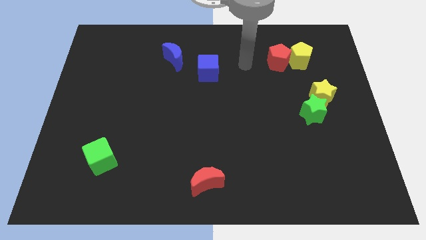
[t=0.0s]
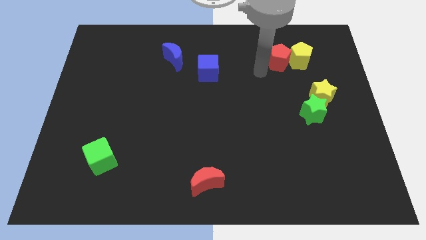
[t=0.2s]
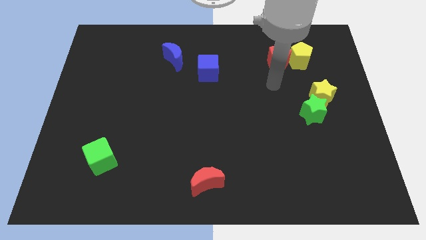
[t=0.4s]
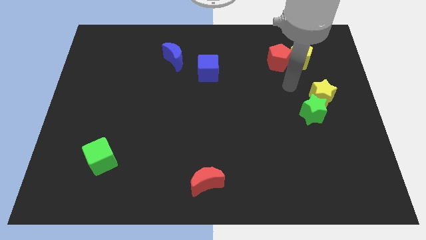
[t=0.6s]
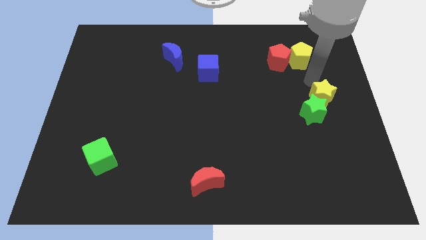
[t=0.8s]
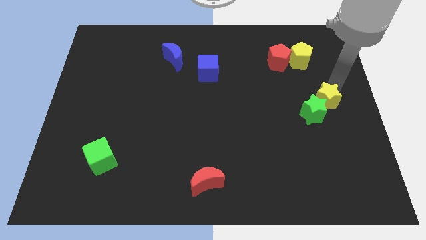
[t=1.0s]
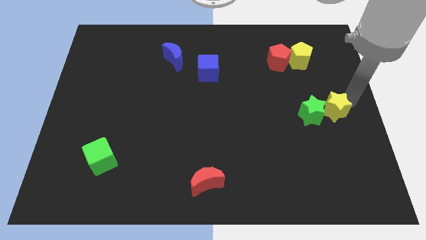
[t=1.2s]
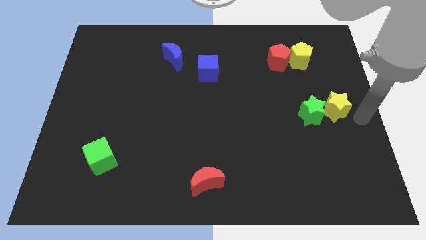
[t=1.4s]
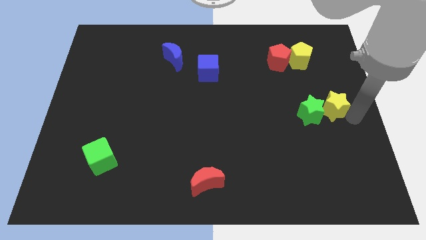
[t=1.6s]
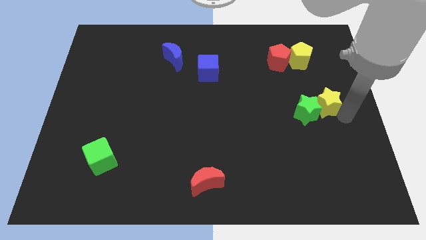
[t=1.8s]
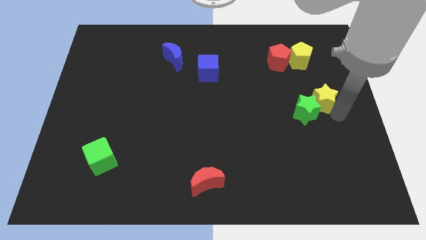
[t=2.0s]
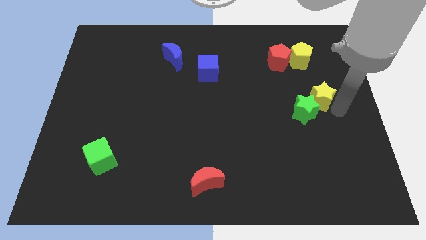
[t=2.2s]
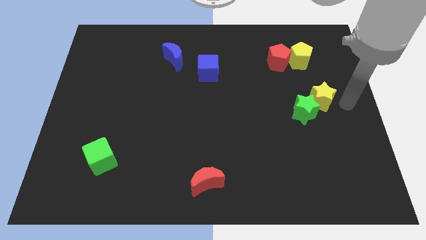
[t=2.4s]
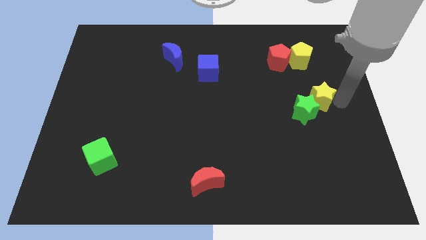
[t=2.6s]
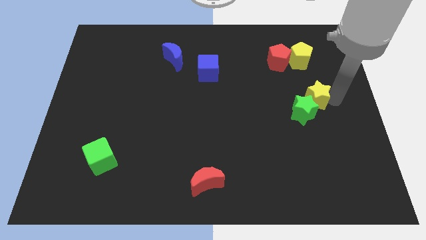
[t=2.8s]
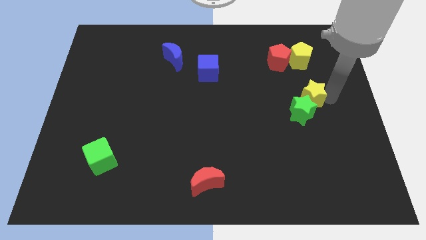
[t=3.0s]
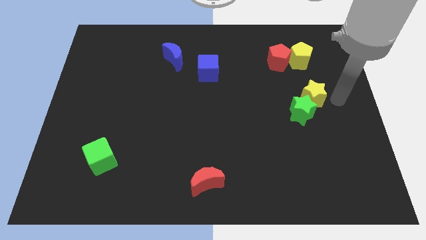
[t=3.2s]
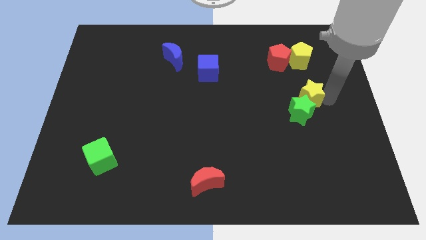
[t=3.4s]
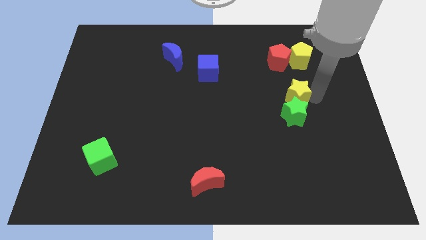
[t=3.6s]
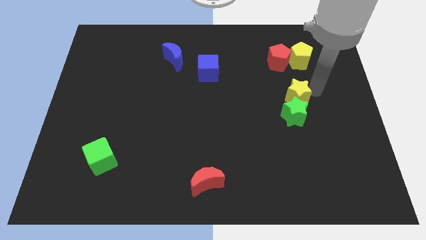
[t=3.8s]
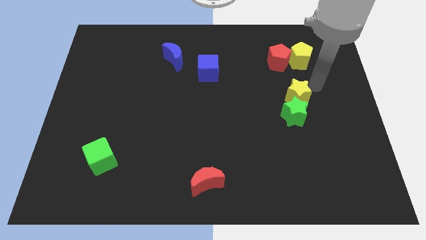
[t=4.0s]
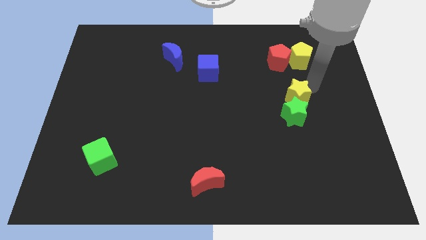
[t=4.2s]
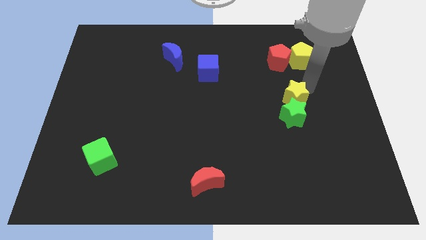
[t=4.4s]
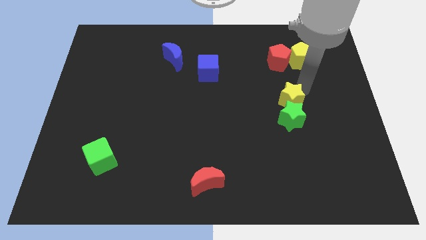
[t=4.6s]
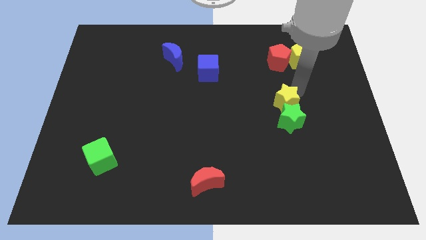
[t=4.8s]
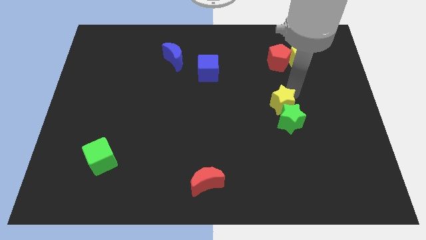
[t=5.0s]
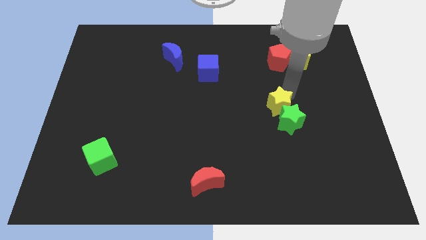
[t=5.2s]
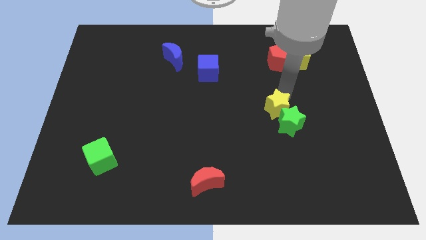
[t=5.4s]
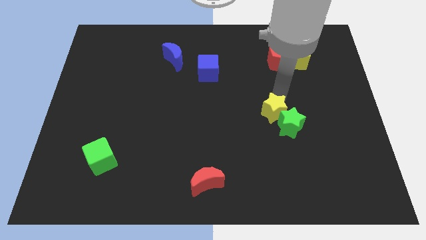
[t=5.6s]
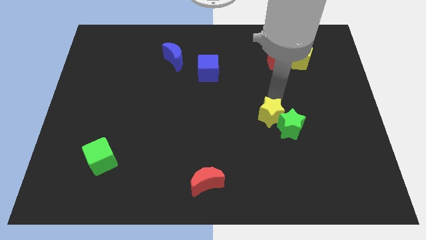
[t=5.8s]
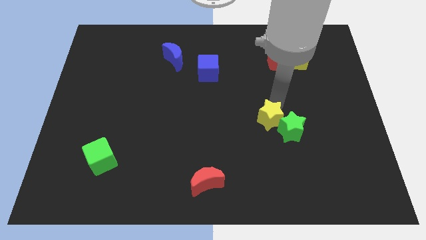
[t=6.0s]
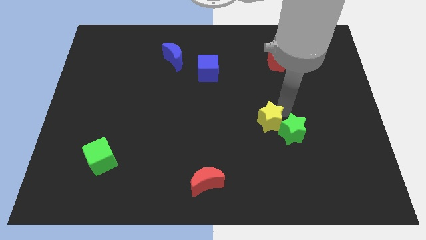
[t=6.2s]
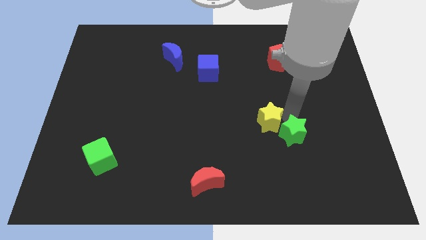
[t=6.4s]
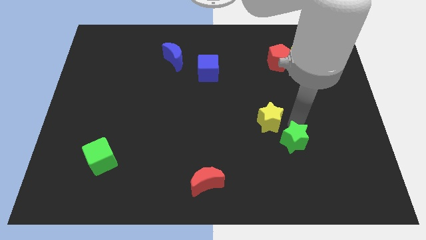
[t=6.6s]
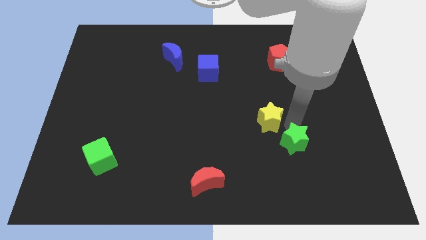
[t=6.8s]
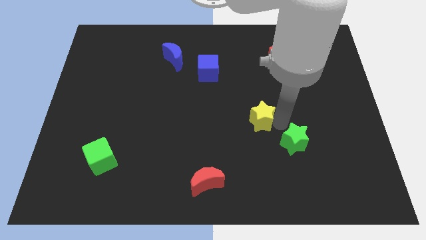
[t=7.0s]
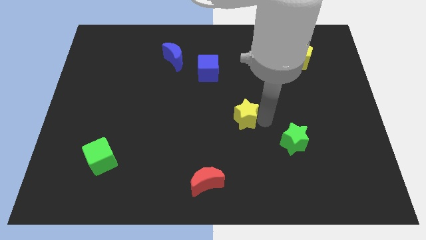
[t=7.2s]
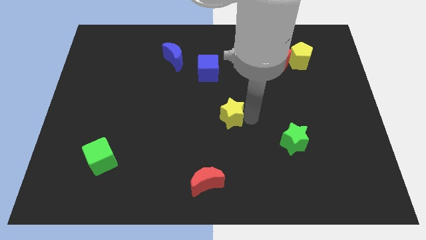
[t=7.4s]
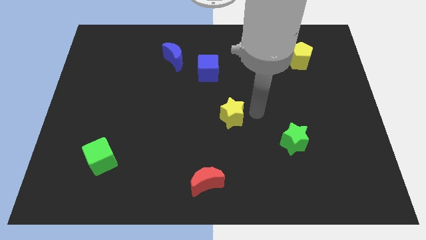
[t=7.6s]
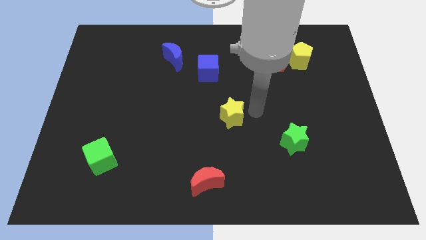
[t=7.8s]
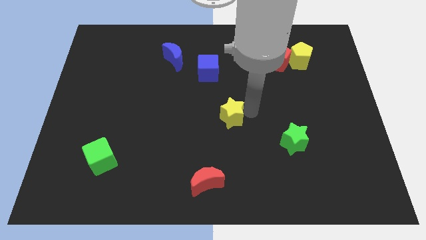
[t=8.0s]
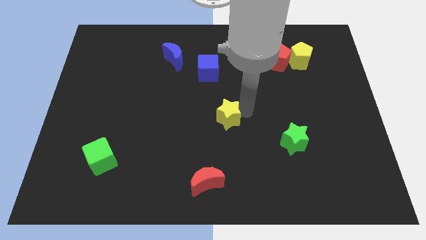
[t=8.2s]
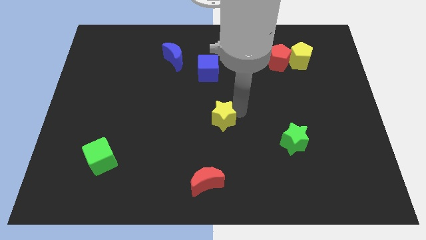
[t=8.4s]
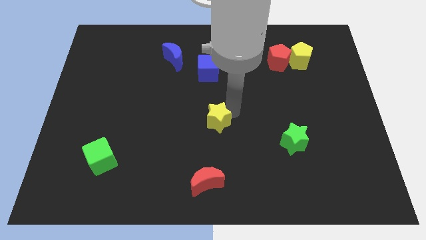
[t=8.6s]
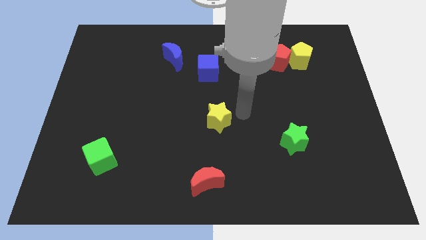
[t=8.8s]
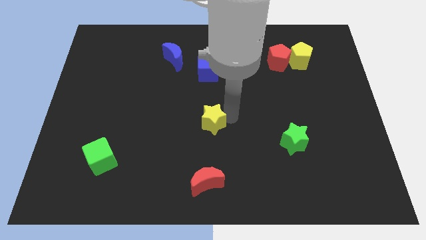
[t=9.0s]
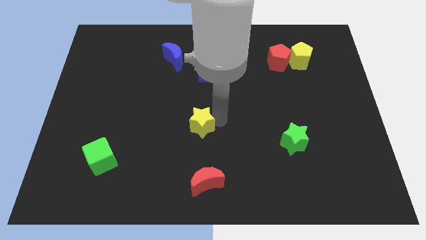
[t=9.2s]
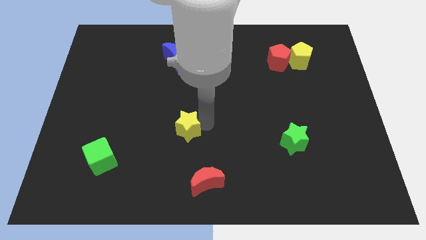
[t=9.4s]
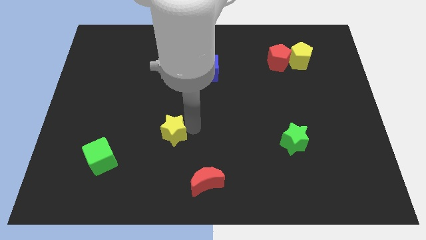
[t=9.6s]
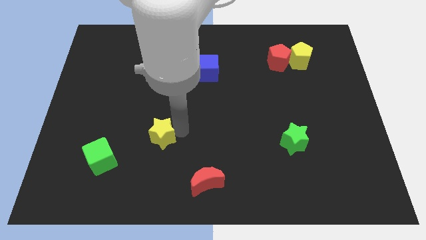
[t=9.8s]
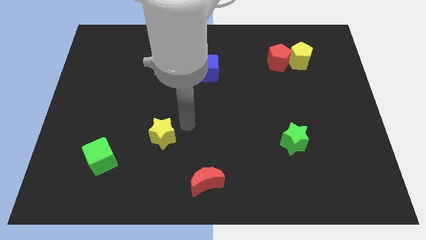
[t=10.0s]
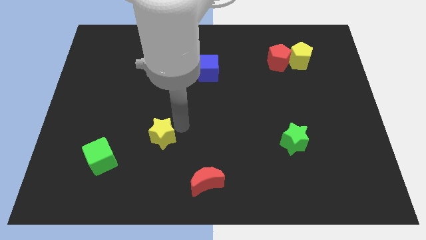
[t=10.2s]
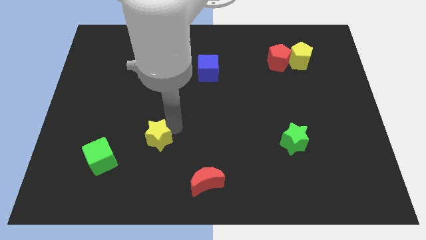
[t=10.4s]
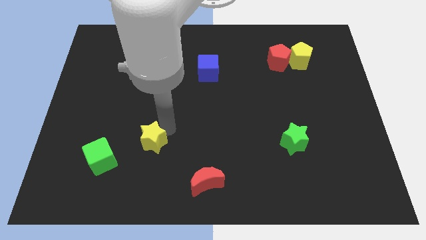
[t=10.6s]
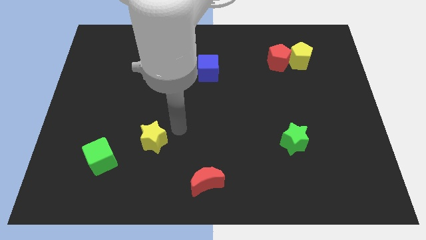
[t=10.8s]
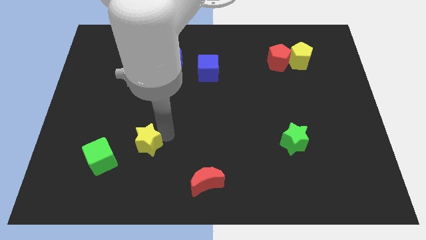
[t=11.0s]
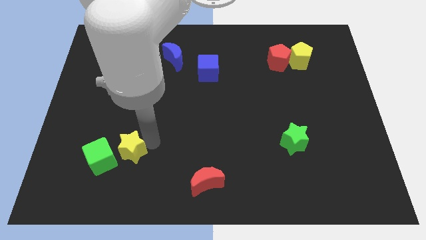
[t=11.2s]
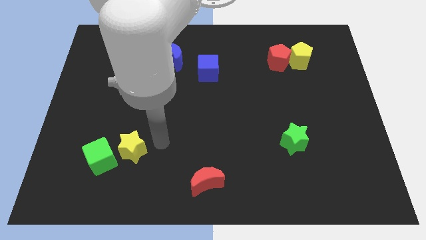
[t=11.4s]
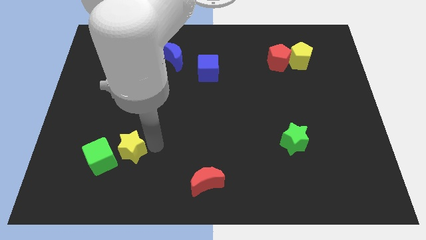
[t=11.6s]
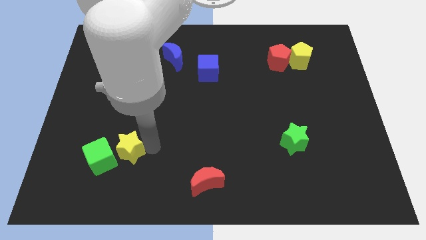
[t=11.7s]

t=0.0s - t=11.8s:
slide the yellow star next to the green cube

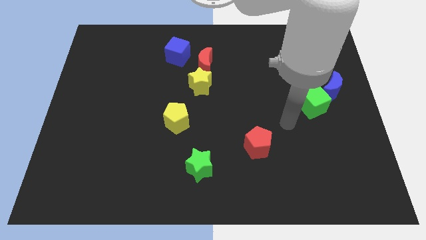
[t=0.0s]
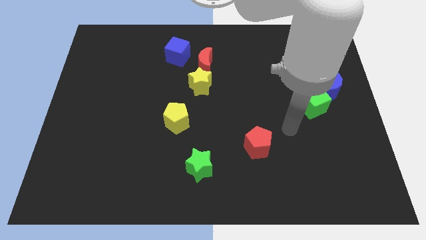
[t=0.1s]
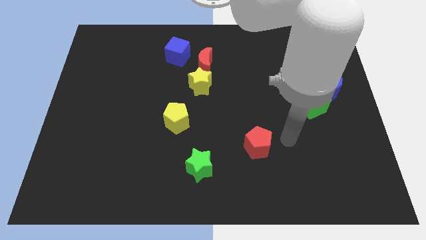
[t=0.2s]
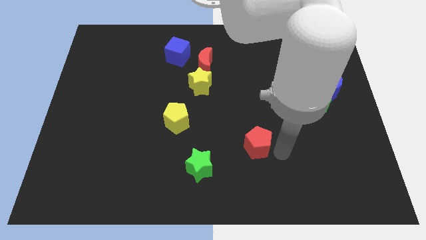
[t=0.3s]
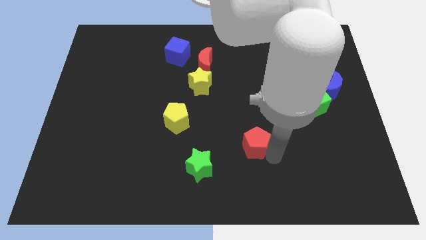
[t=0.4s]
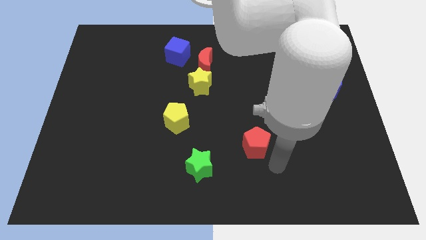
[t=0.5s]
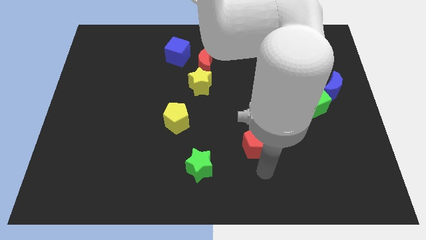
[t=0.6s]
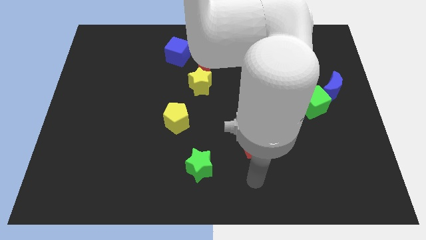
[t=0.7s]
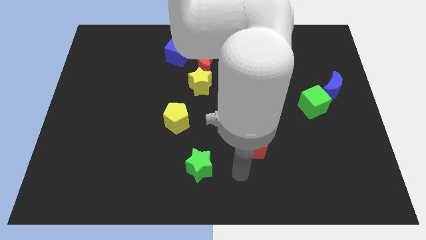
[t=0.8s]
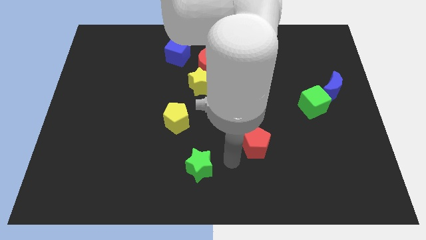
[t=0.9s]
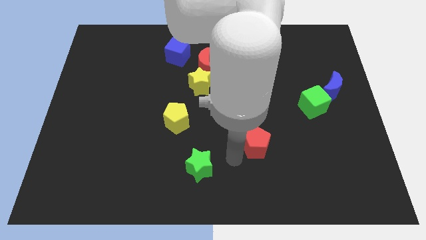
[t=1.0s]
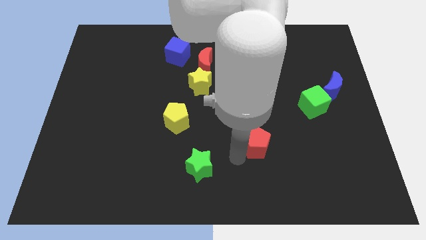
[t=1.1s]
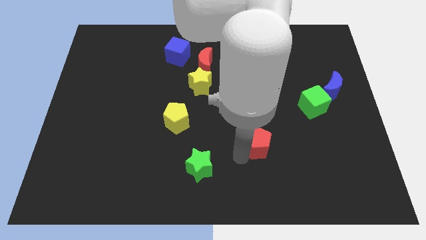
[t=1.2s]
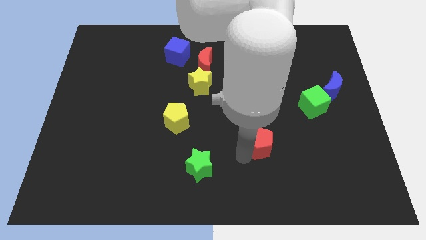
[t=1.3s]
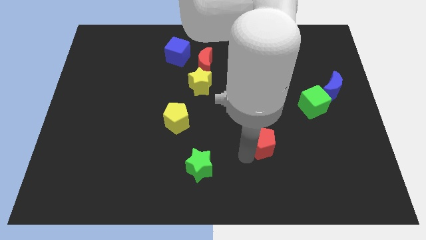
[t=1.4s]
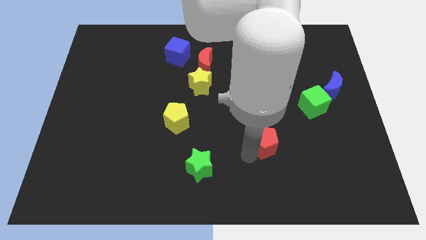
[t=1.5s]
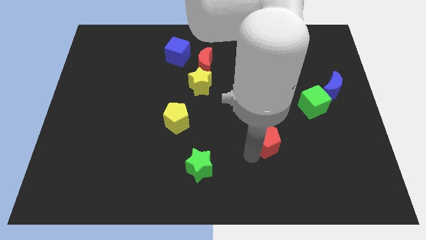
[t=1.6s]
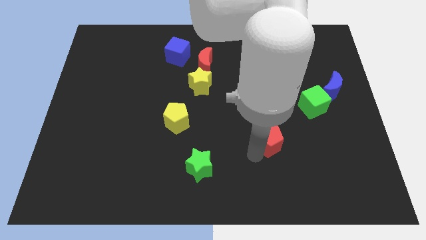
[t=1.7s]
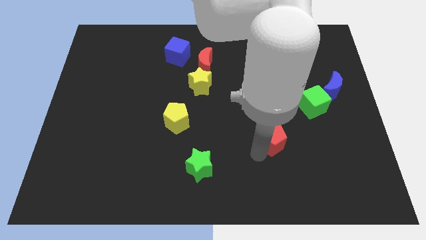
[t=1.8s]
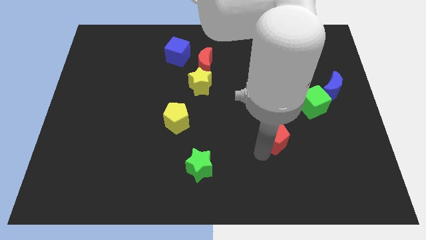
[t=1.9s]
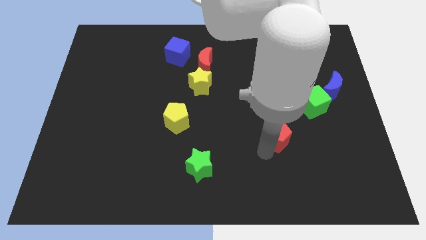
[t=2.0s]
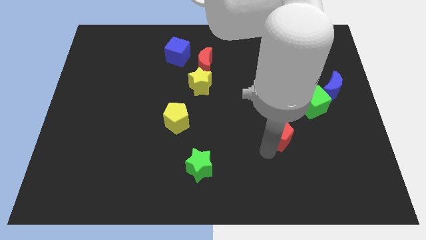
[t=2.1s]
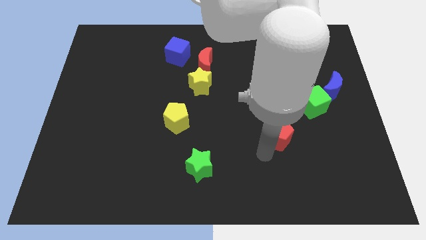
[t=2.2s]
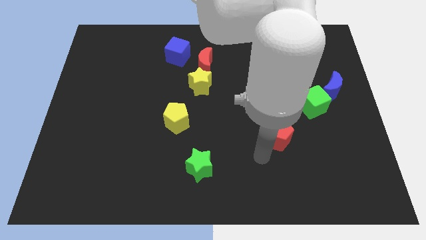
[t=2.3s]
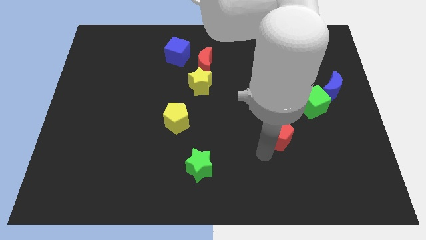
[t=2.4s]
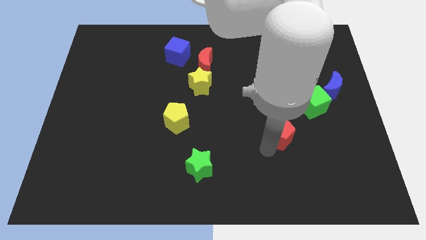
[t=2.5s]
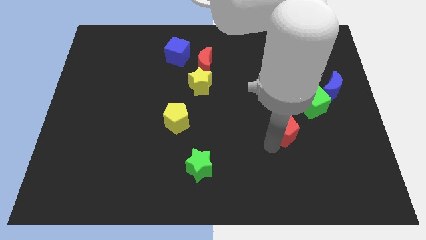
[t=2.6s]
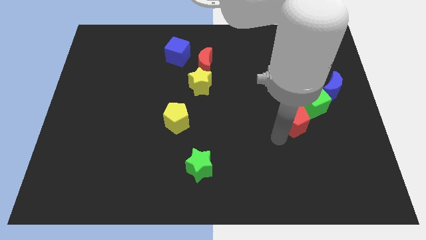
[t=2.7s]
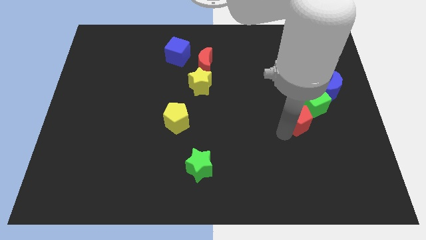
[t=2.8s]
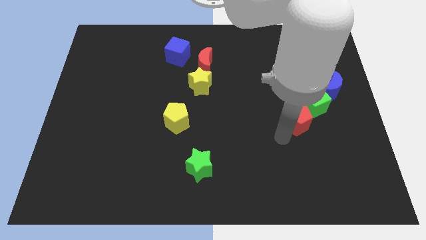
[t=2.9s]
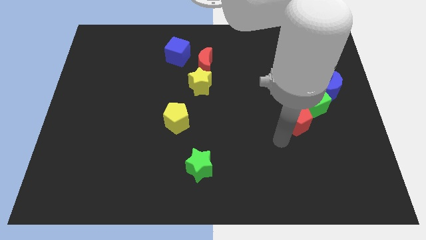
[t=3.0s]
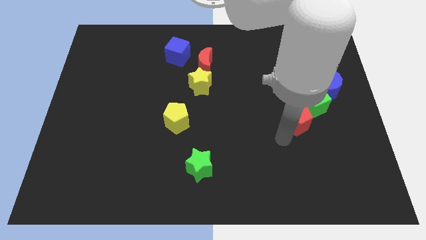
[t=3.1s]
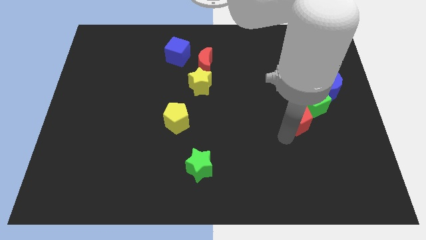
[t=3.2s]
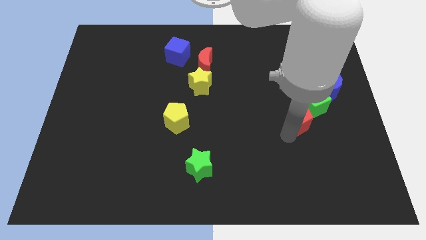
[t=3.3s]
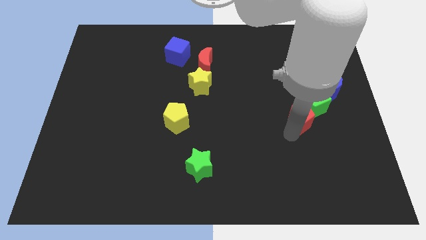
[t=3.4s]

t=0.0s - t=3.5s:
push the red pentagon next to the green cube
